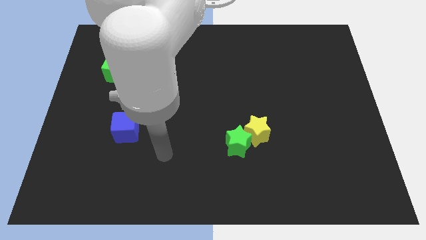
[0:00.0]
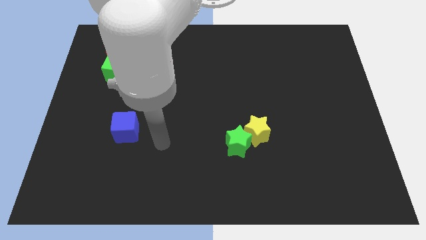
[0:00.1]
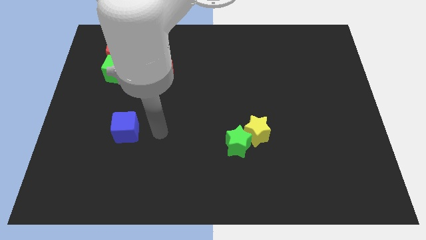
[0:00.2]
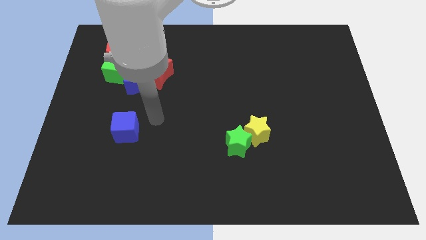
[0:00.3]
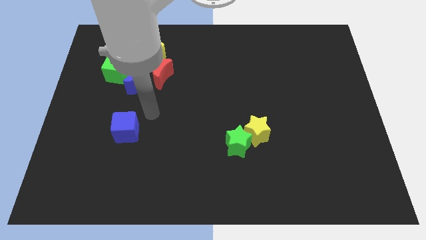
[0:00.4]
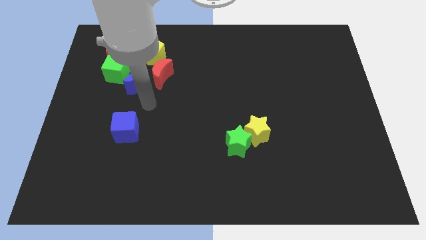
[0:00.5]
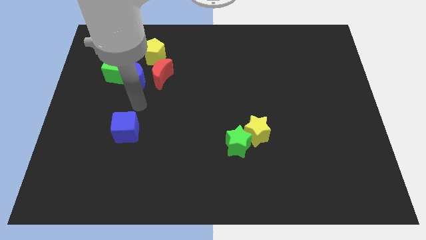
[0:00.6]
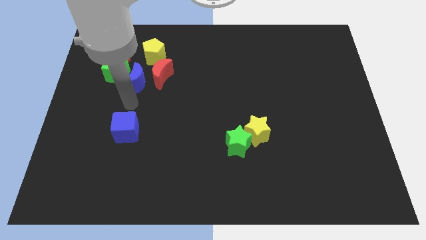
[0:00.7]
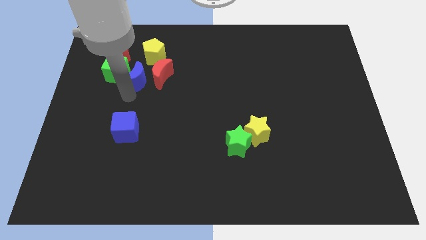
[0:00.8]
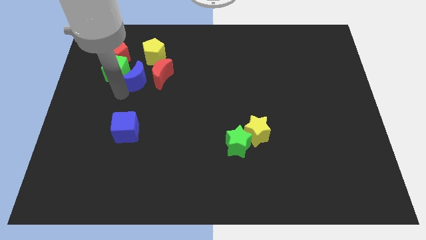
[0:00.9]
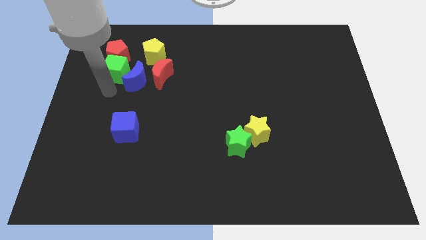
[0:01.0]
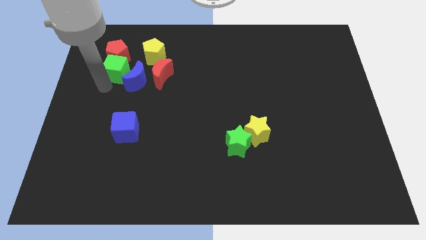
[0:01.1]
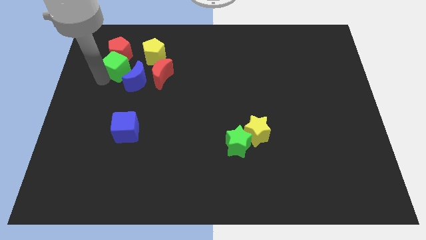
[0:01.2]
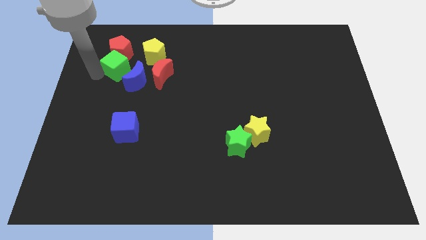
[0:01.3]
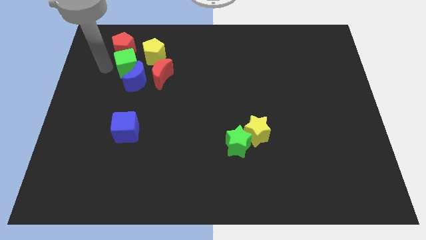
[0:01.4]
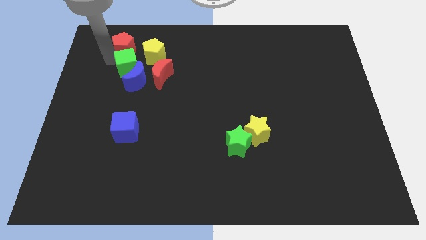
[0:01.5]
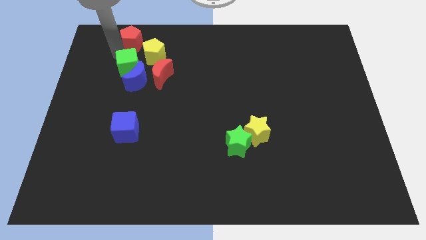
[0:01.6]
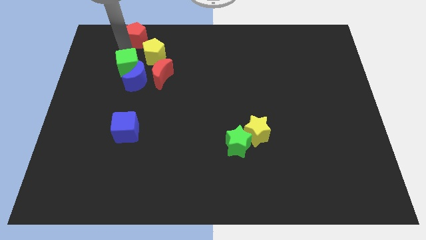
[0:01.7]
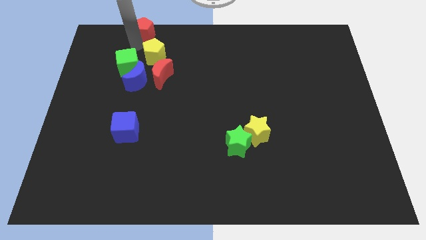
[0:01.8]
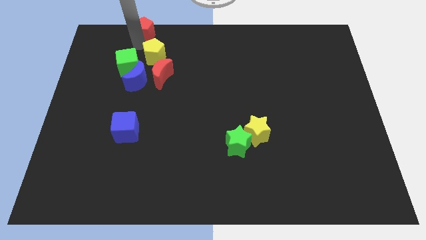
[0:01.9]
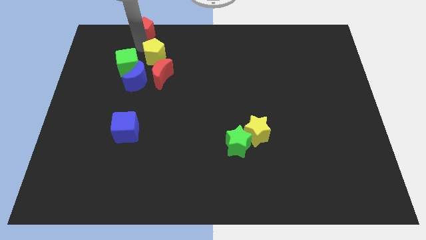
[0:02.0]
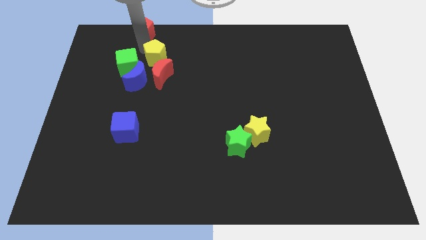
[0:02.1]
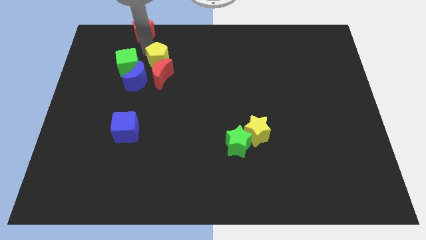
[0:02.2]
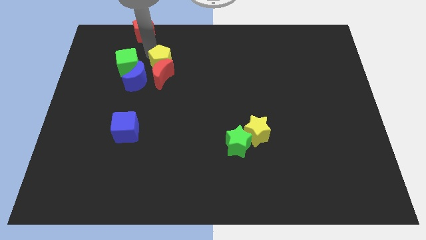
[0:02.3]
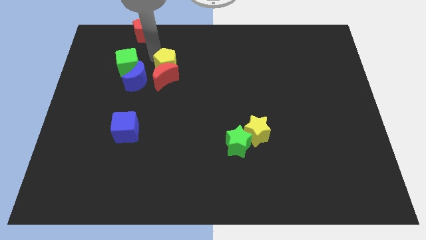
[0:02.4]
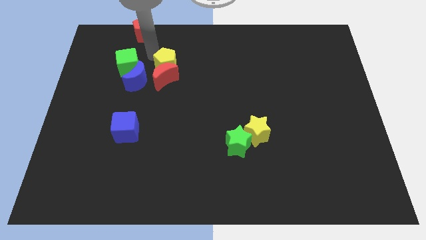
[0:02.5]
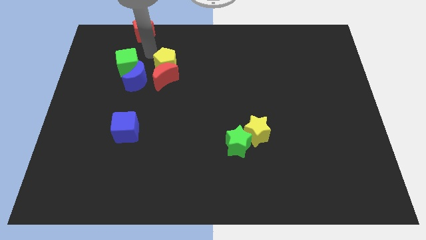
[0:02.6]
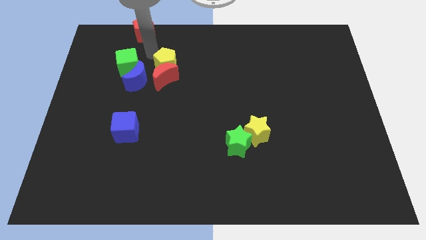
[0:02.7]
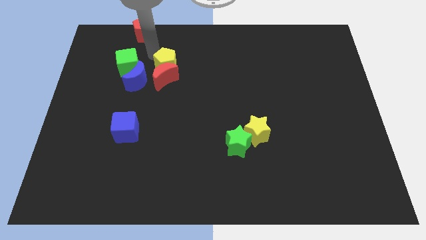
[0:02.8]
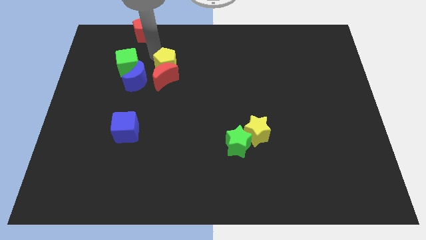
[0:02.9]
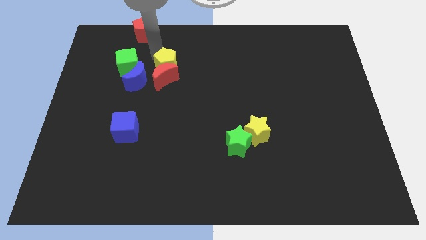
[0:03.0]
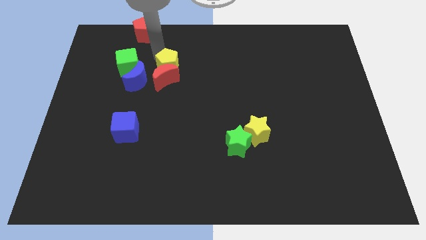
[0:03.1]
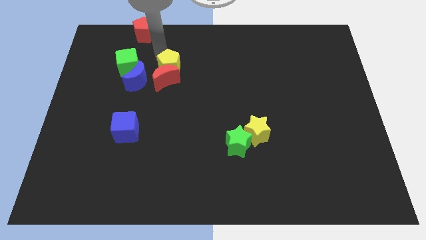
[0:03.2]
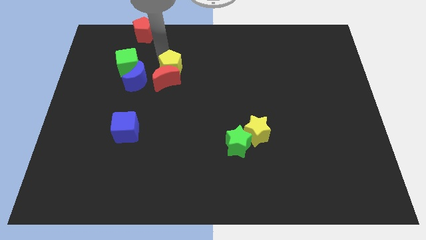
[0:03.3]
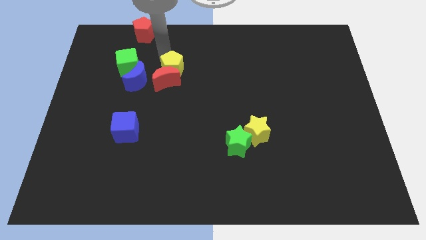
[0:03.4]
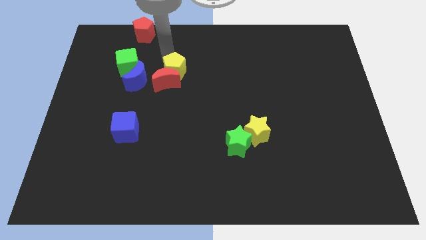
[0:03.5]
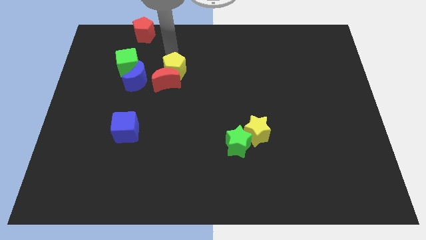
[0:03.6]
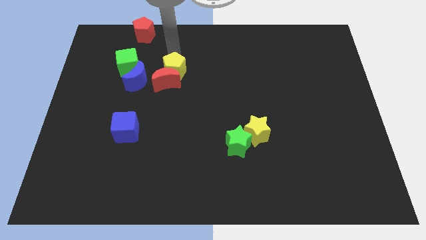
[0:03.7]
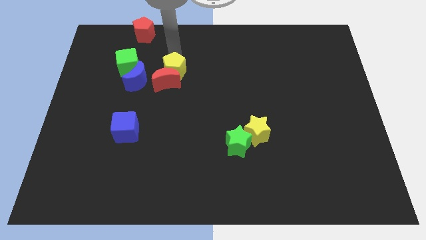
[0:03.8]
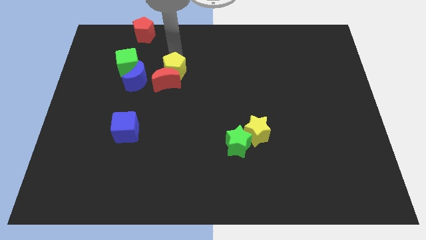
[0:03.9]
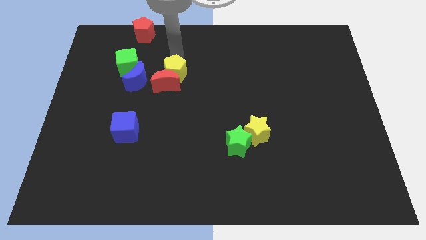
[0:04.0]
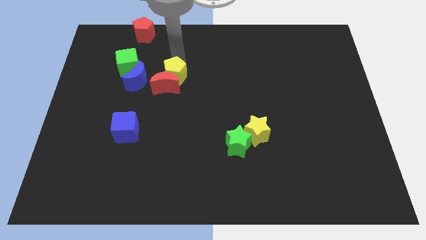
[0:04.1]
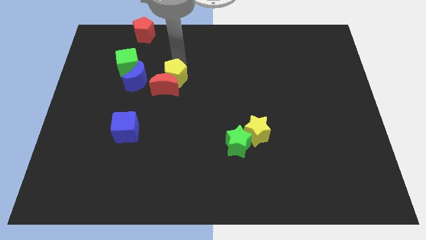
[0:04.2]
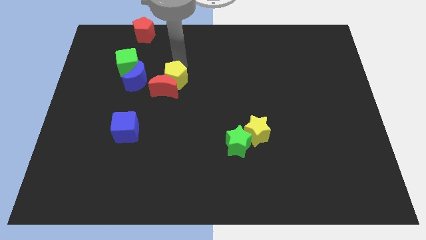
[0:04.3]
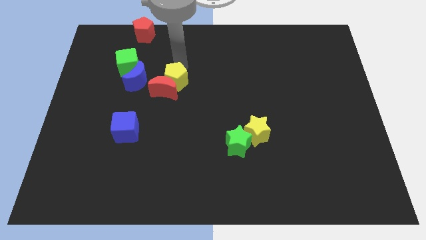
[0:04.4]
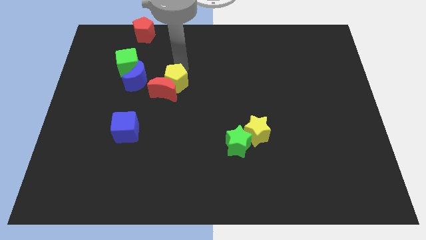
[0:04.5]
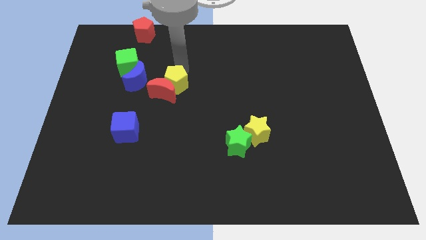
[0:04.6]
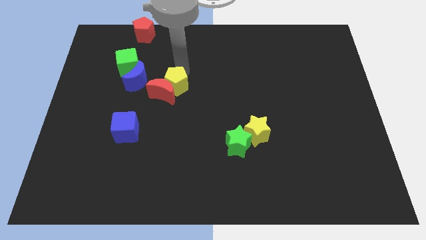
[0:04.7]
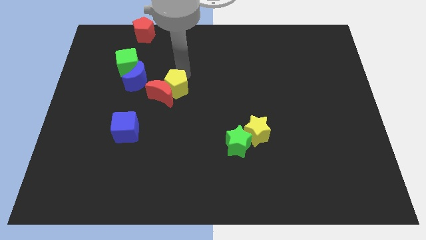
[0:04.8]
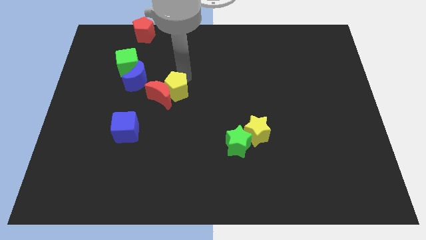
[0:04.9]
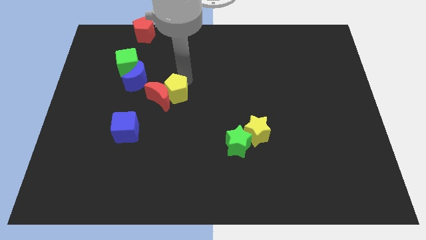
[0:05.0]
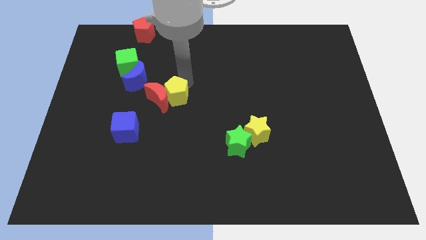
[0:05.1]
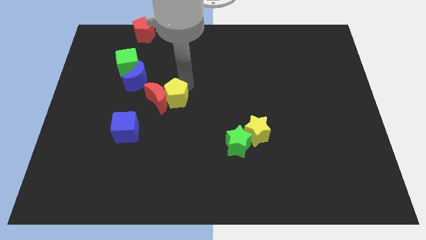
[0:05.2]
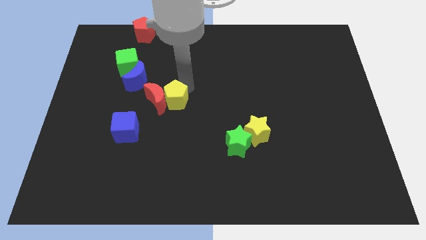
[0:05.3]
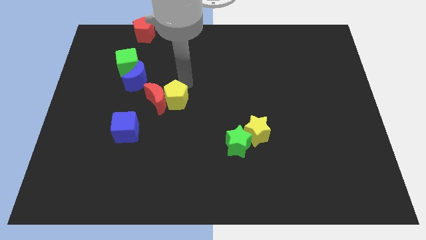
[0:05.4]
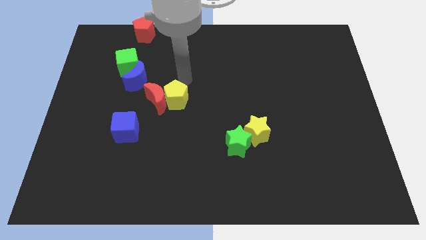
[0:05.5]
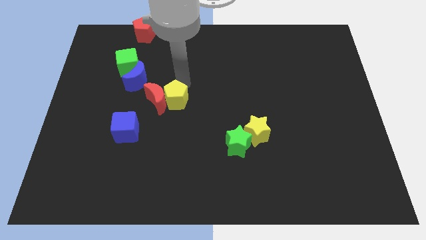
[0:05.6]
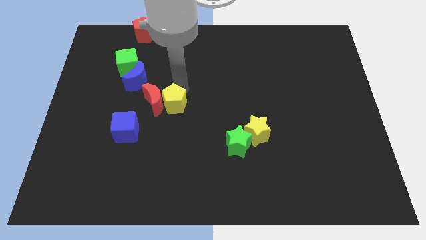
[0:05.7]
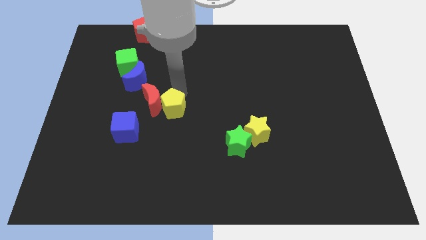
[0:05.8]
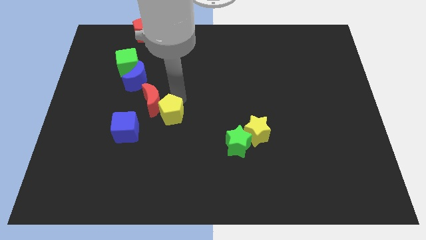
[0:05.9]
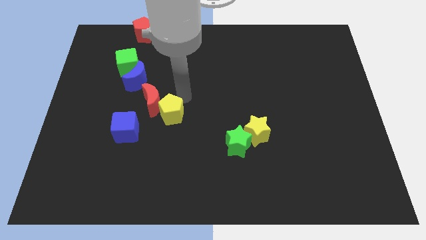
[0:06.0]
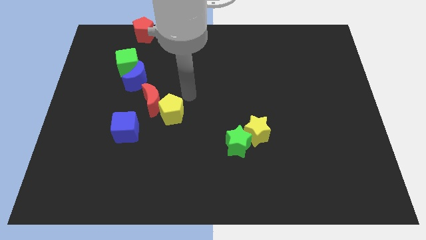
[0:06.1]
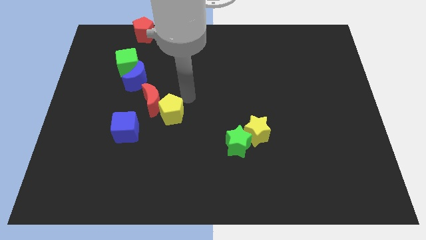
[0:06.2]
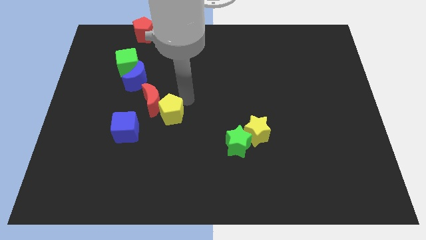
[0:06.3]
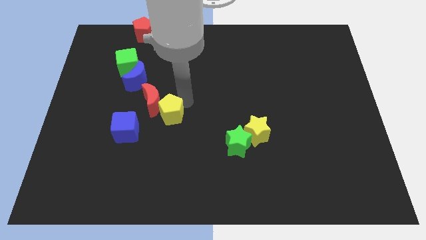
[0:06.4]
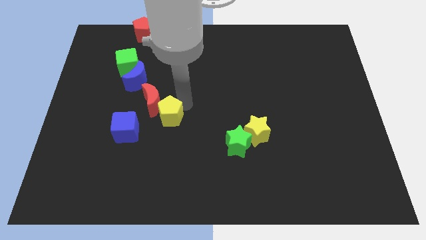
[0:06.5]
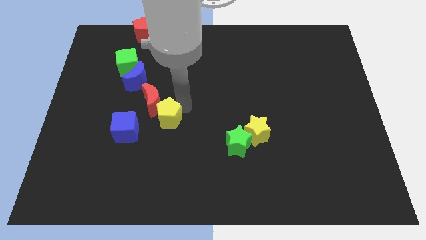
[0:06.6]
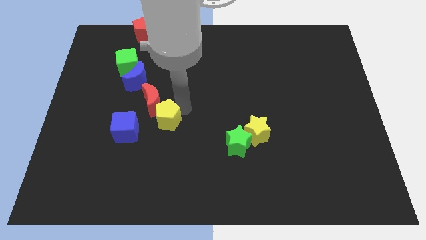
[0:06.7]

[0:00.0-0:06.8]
move the yellow pentagon downwards

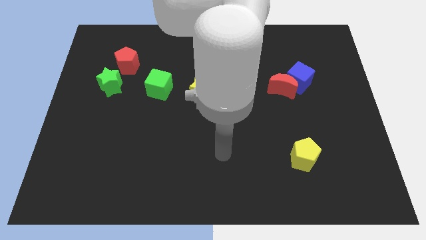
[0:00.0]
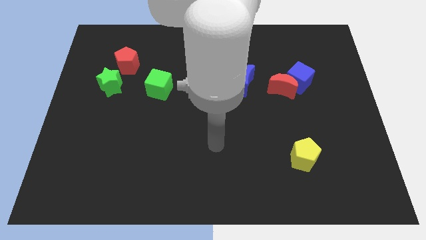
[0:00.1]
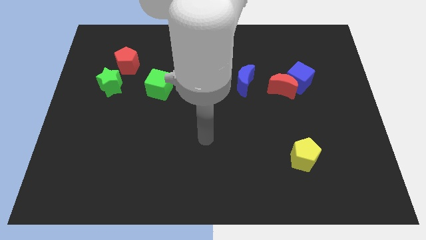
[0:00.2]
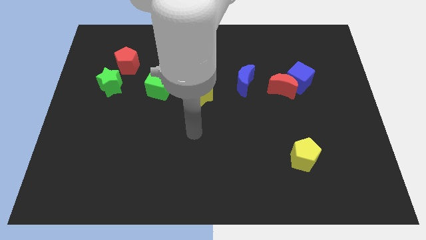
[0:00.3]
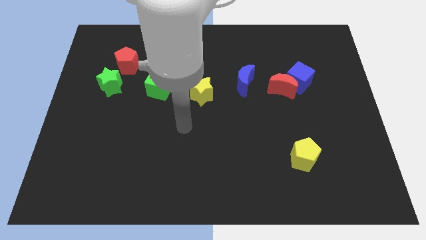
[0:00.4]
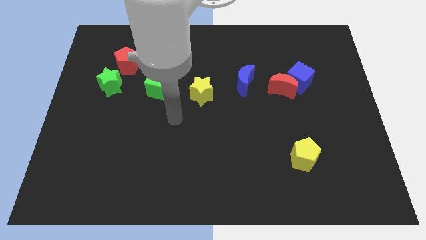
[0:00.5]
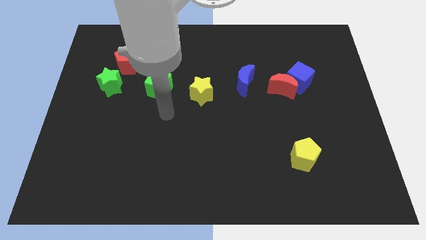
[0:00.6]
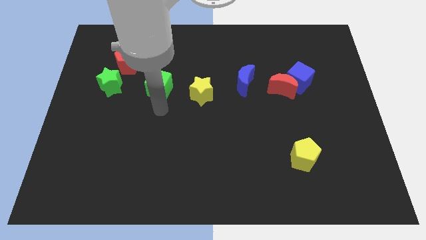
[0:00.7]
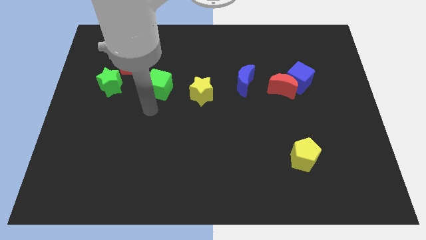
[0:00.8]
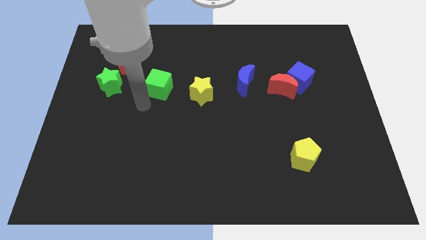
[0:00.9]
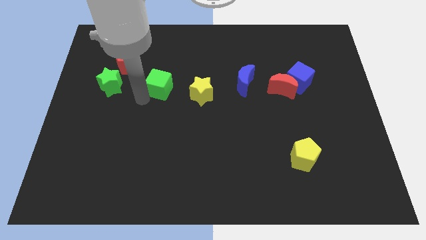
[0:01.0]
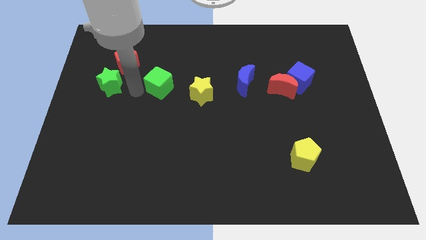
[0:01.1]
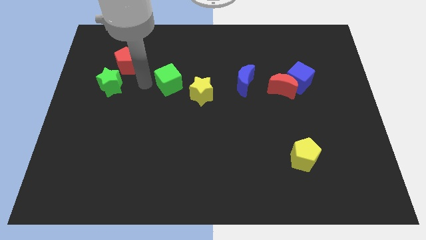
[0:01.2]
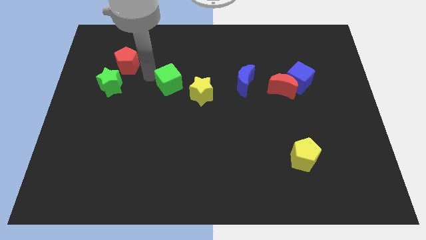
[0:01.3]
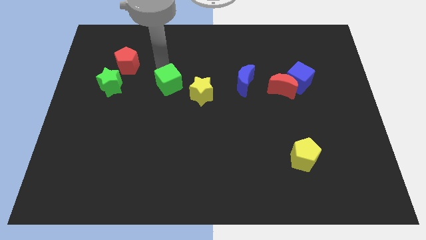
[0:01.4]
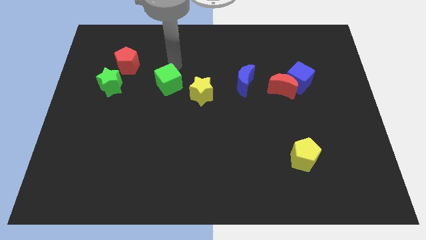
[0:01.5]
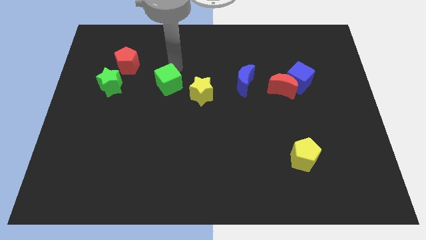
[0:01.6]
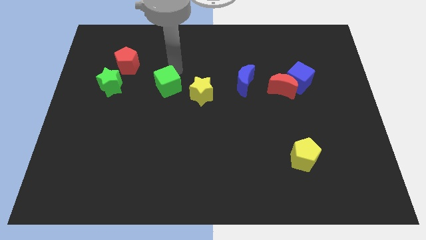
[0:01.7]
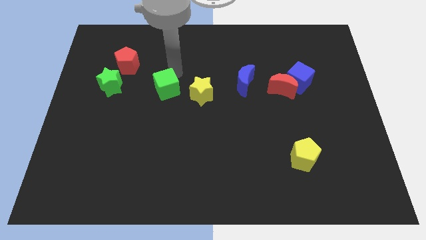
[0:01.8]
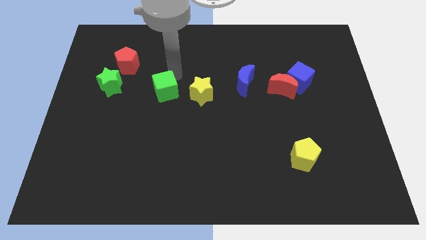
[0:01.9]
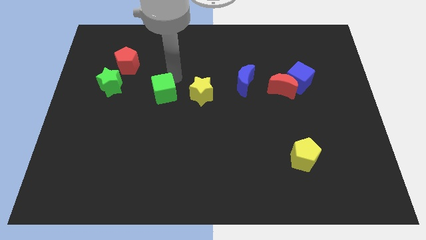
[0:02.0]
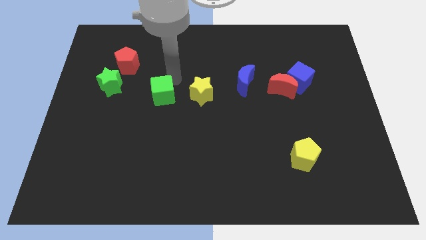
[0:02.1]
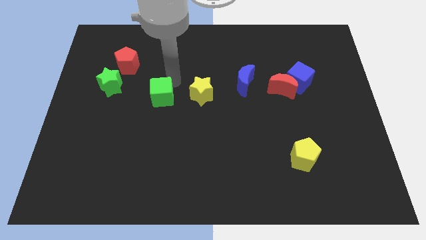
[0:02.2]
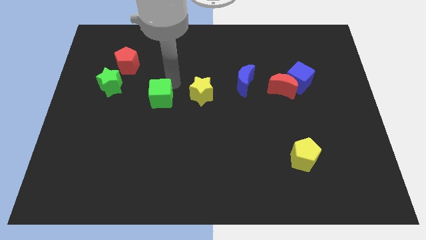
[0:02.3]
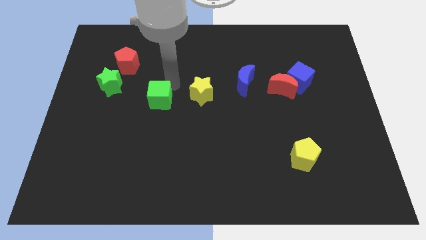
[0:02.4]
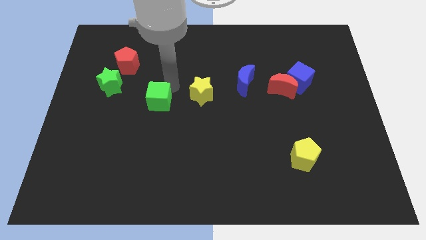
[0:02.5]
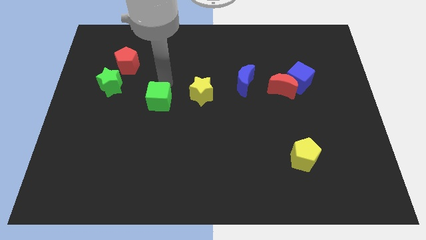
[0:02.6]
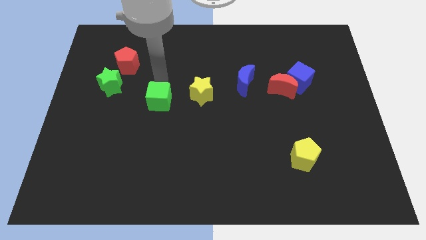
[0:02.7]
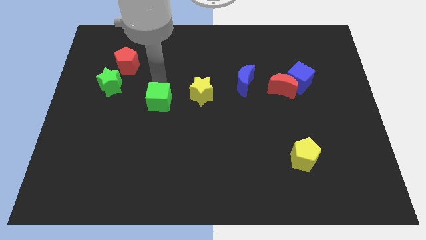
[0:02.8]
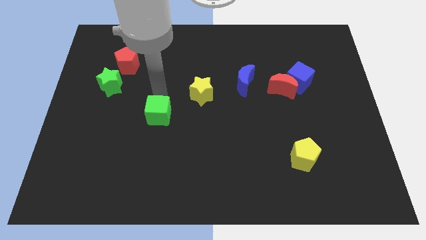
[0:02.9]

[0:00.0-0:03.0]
slightly move the green cube downwards
